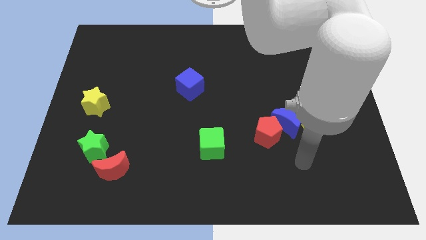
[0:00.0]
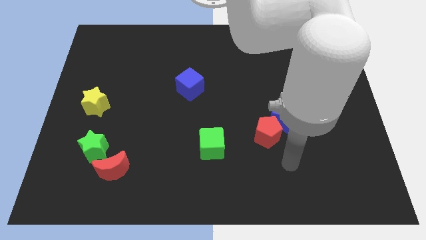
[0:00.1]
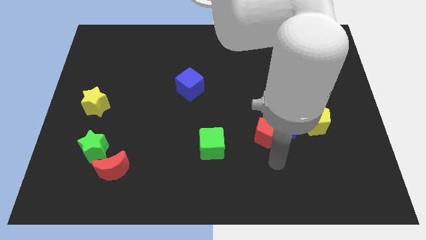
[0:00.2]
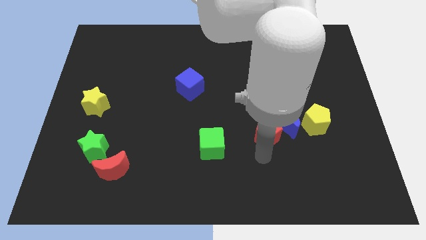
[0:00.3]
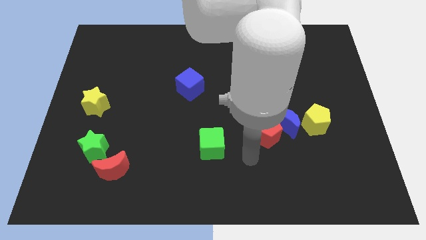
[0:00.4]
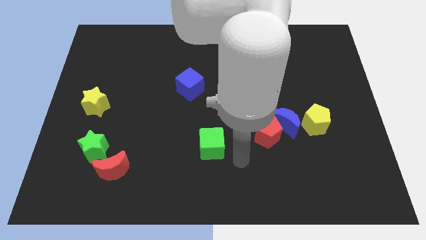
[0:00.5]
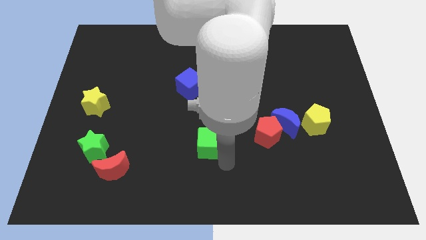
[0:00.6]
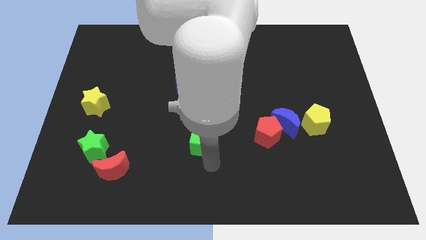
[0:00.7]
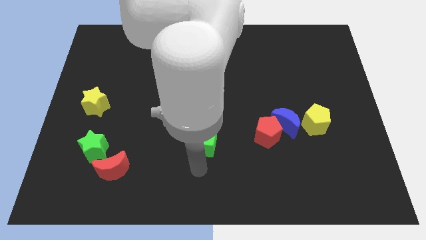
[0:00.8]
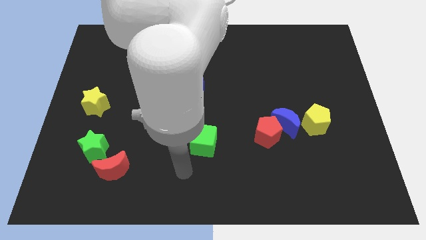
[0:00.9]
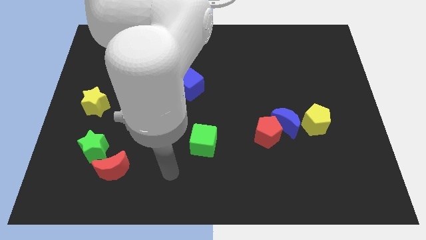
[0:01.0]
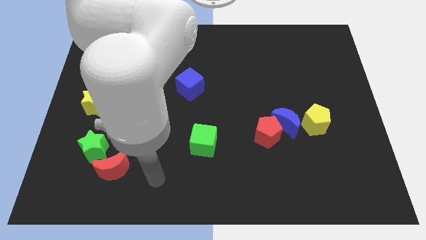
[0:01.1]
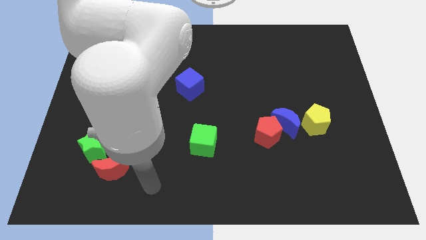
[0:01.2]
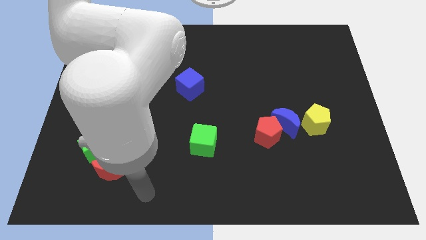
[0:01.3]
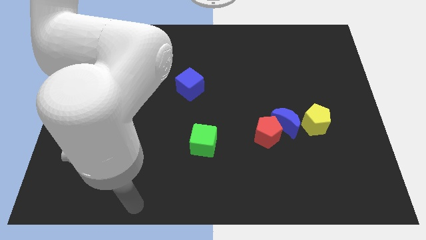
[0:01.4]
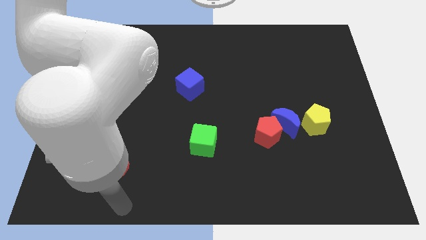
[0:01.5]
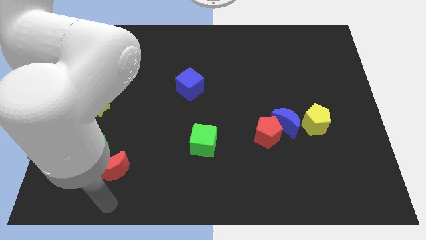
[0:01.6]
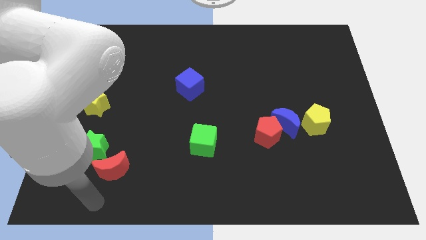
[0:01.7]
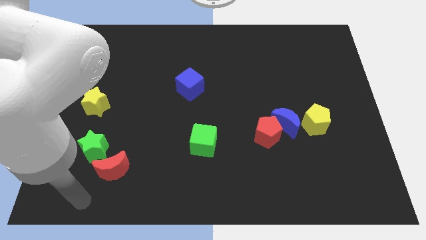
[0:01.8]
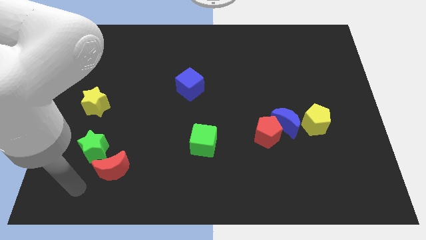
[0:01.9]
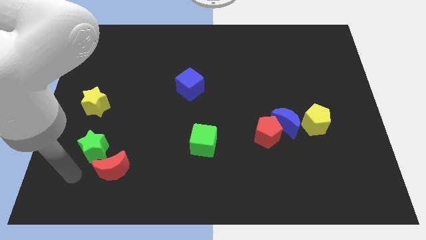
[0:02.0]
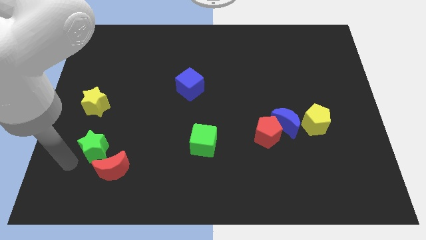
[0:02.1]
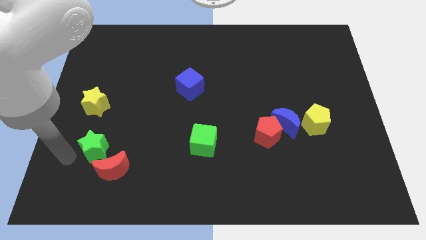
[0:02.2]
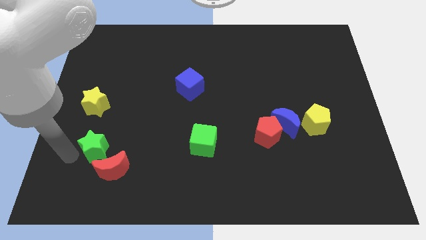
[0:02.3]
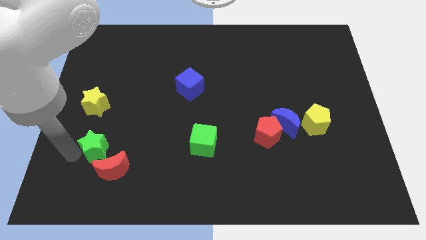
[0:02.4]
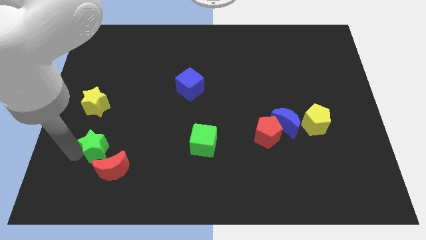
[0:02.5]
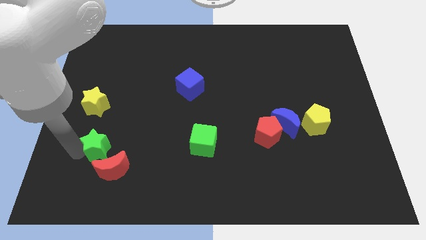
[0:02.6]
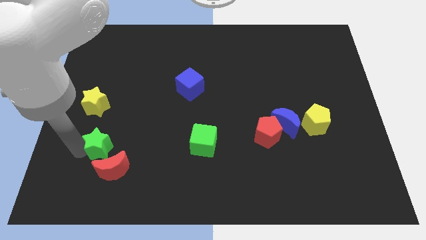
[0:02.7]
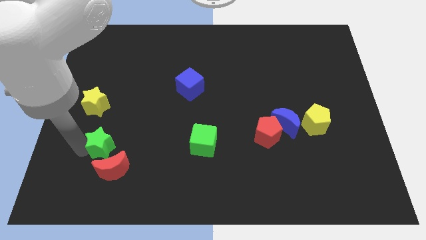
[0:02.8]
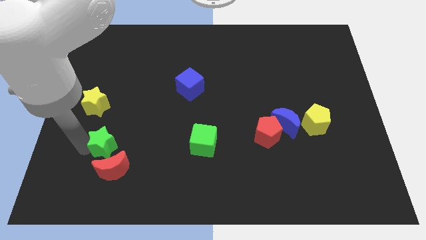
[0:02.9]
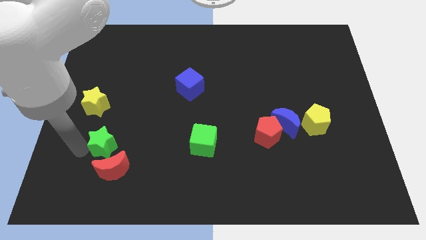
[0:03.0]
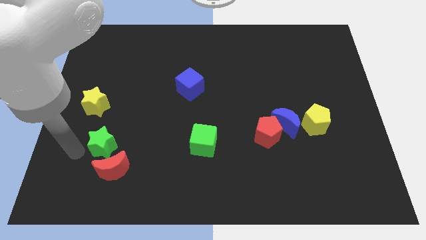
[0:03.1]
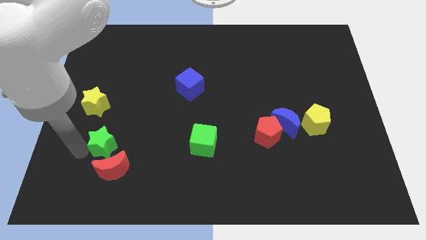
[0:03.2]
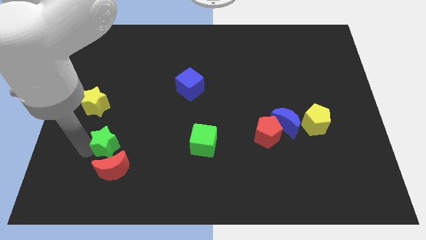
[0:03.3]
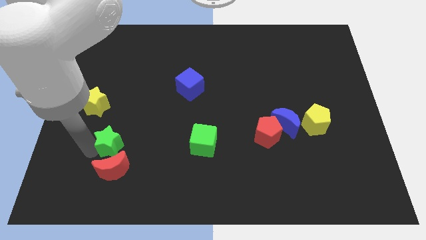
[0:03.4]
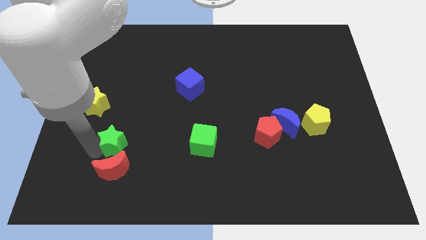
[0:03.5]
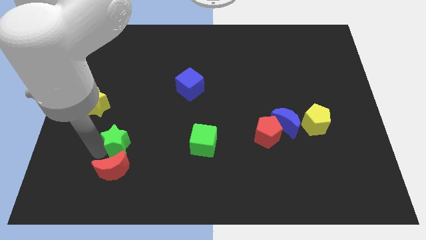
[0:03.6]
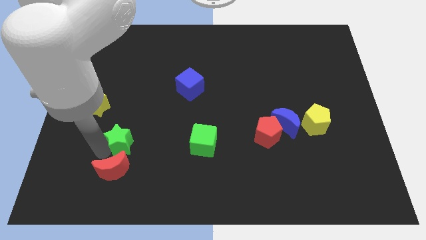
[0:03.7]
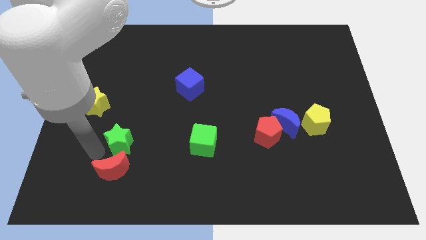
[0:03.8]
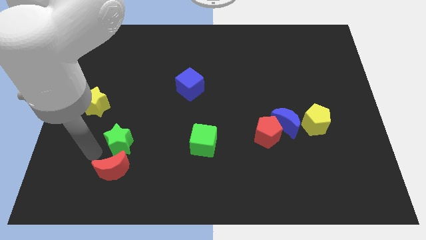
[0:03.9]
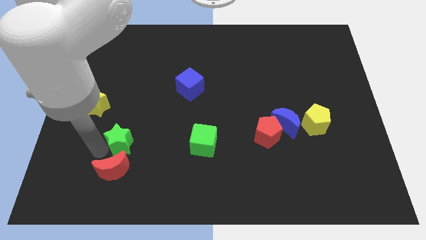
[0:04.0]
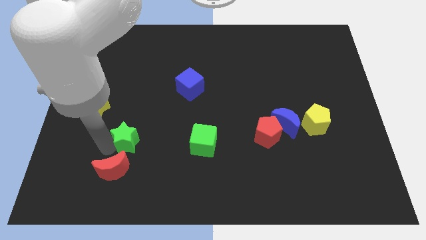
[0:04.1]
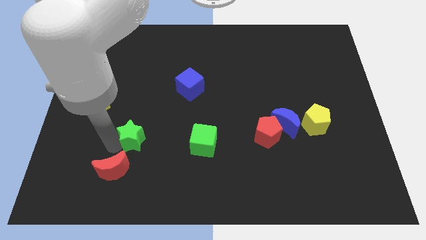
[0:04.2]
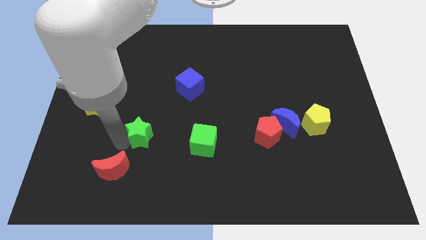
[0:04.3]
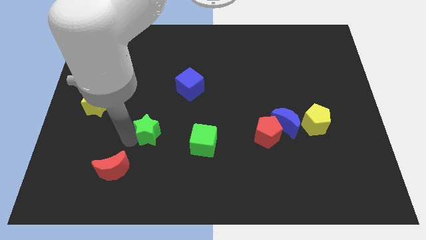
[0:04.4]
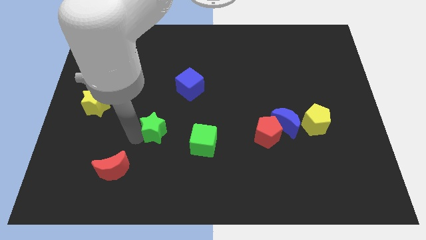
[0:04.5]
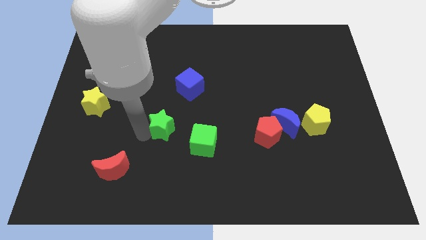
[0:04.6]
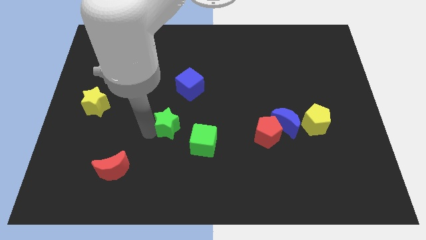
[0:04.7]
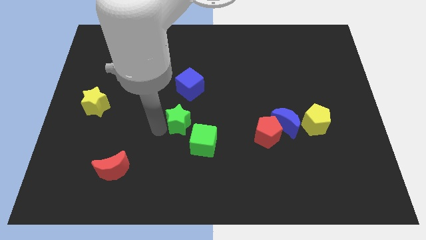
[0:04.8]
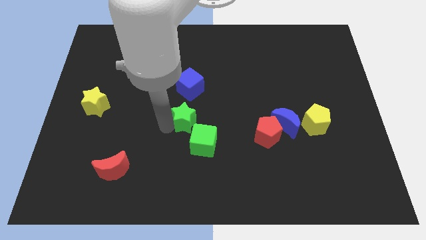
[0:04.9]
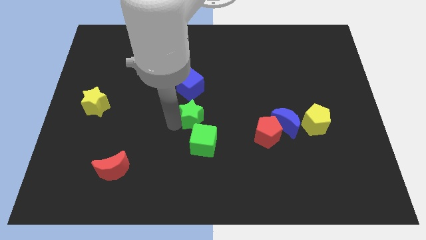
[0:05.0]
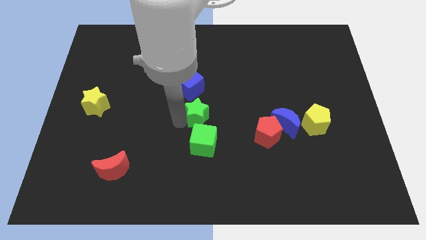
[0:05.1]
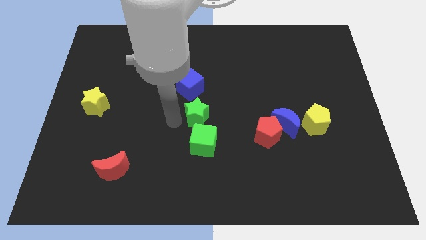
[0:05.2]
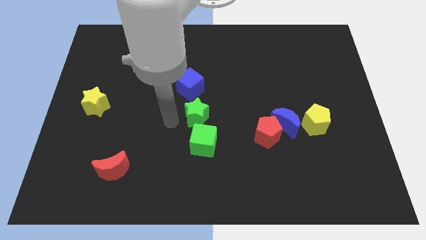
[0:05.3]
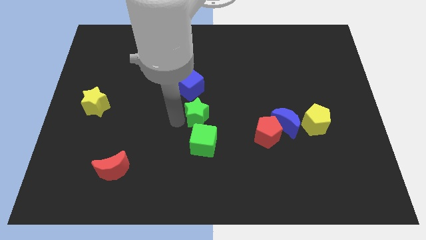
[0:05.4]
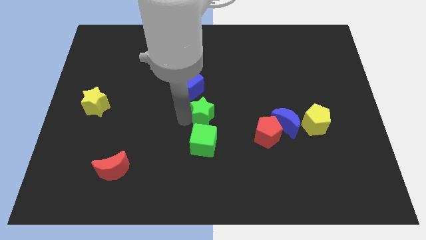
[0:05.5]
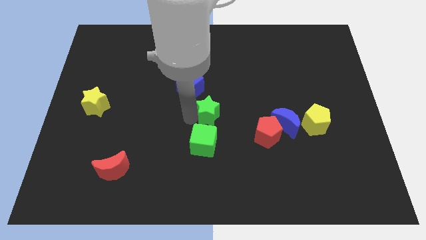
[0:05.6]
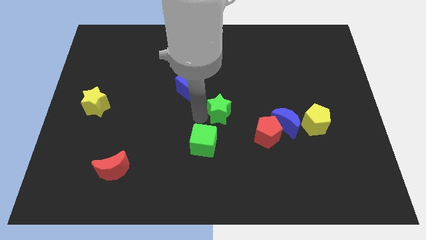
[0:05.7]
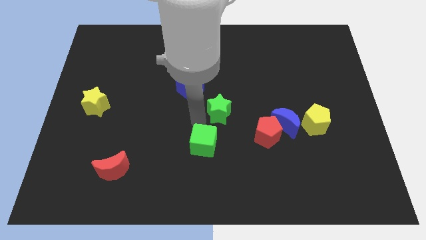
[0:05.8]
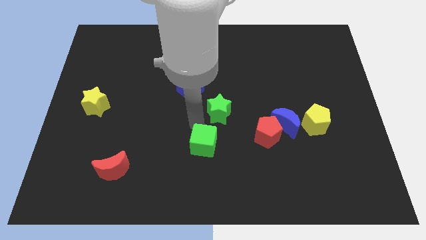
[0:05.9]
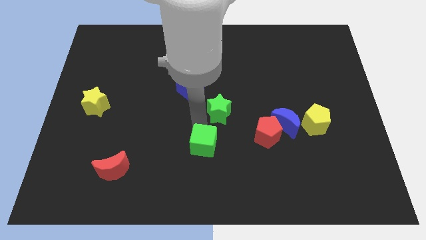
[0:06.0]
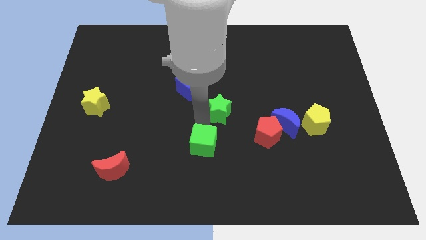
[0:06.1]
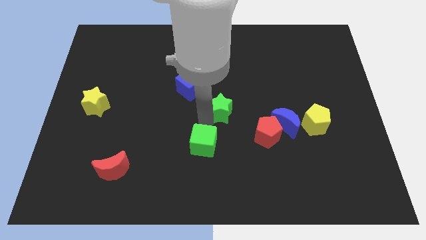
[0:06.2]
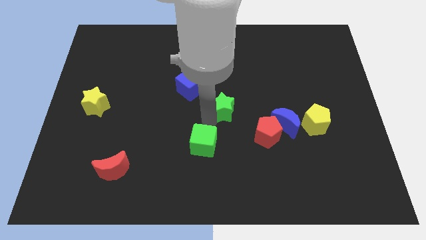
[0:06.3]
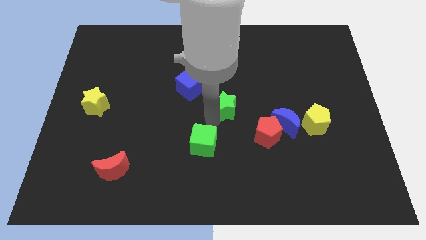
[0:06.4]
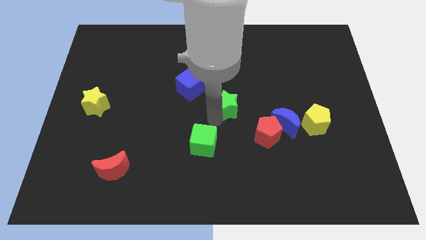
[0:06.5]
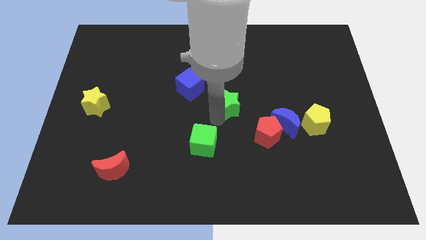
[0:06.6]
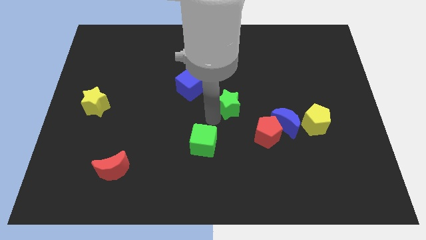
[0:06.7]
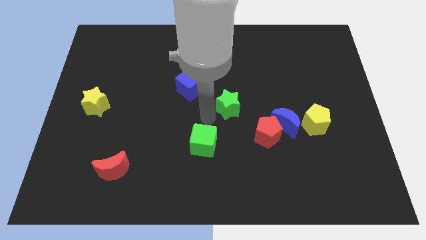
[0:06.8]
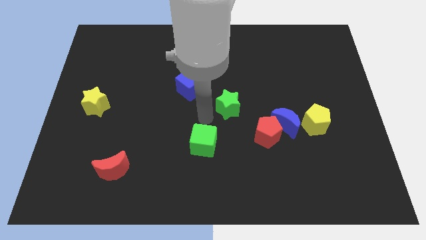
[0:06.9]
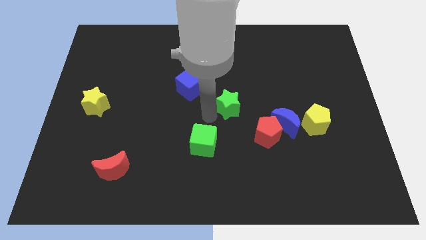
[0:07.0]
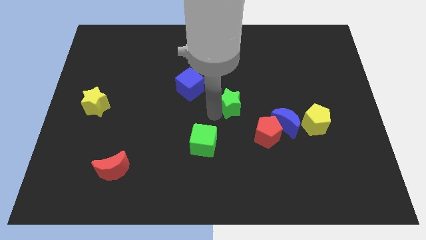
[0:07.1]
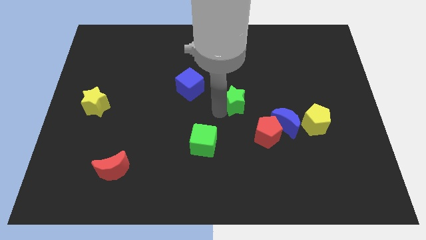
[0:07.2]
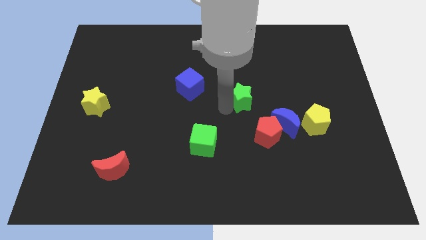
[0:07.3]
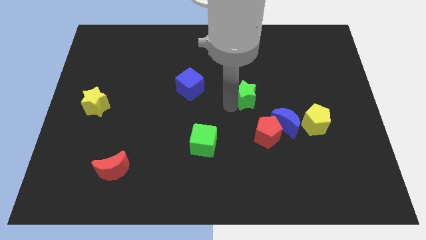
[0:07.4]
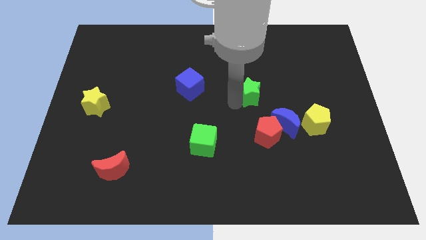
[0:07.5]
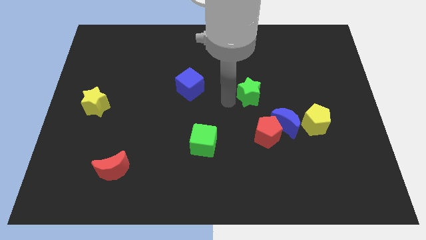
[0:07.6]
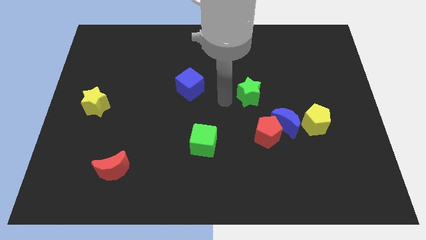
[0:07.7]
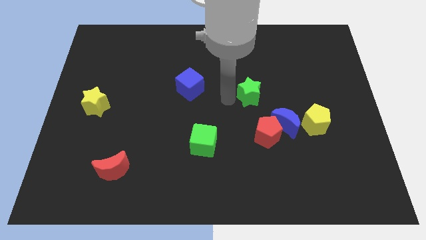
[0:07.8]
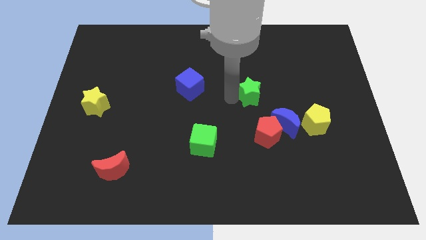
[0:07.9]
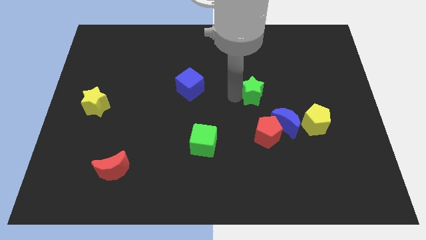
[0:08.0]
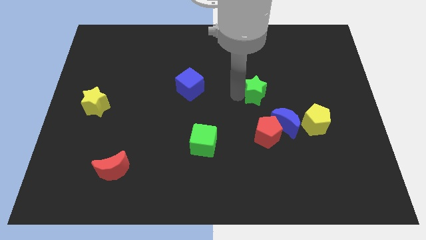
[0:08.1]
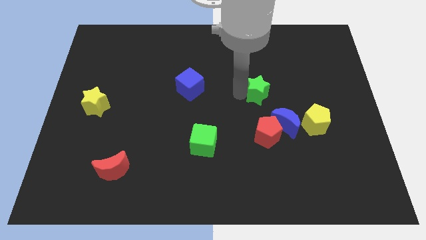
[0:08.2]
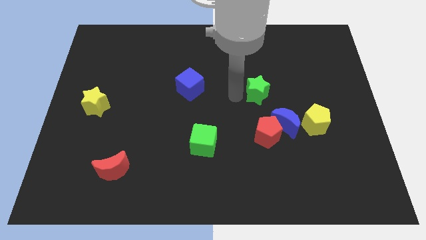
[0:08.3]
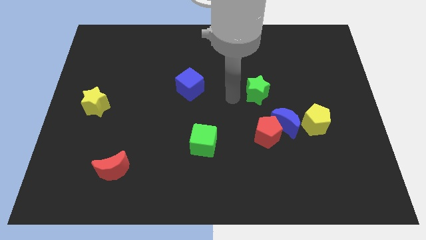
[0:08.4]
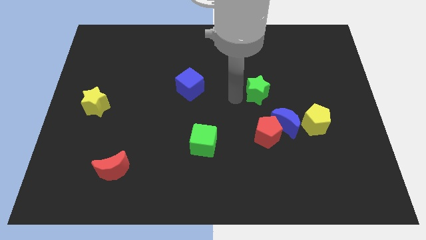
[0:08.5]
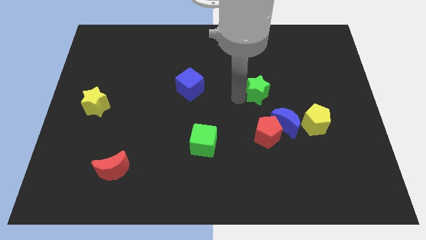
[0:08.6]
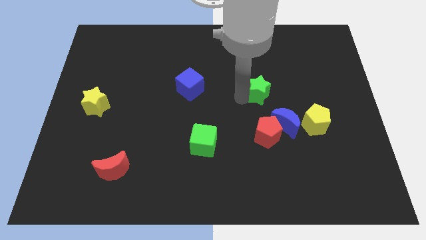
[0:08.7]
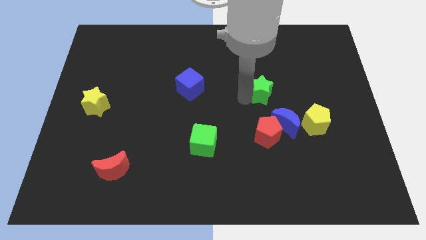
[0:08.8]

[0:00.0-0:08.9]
slide the green star above the blue moon
